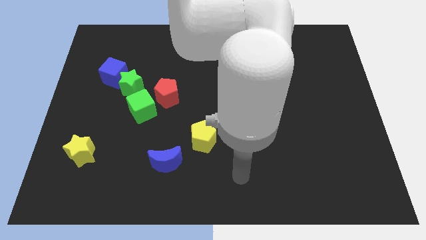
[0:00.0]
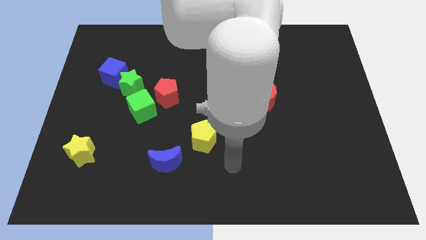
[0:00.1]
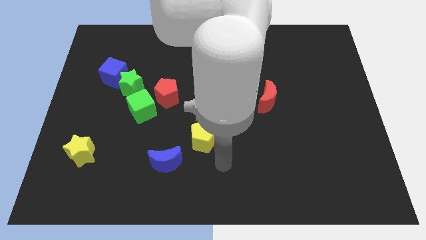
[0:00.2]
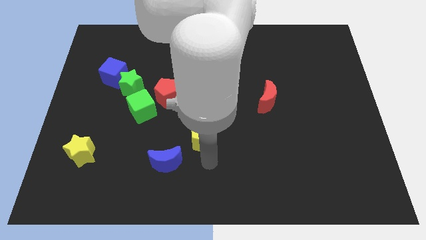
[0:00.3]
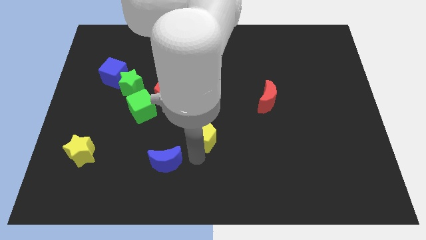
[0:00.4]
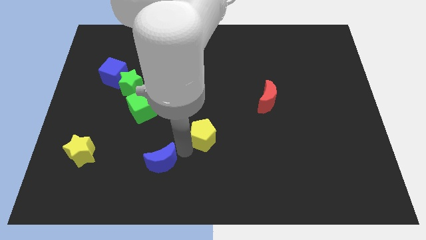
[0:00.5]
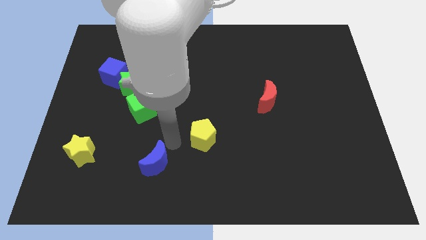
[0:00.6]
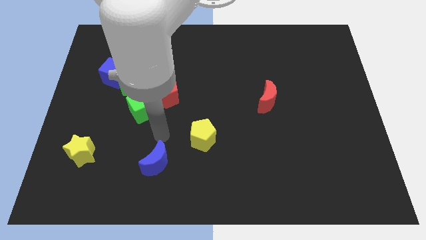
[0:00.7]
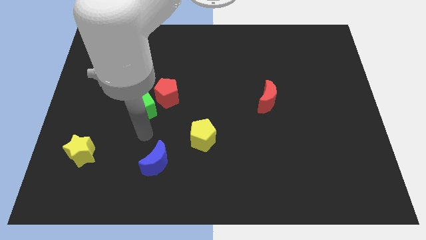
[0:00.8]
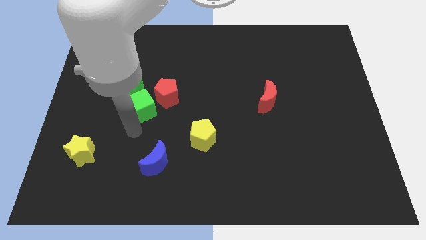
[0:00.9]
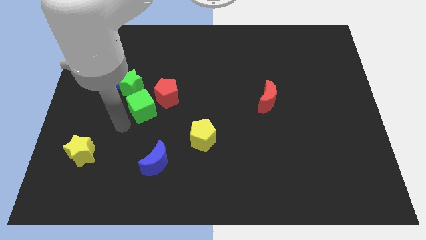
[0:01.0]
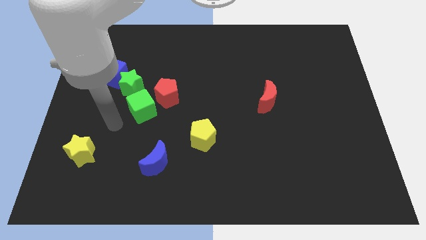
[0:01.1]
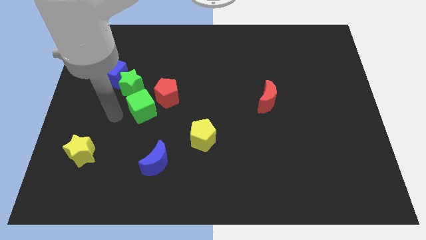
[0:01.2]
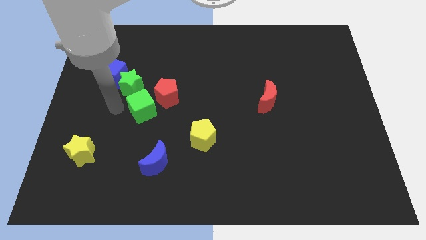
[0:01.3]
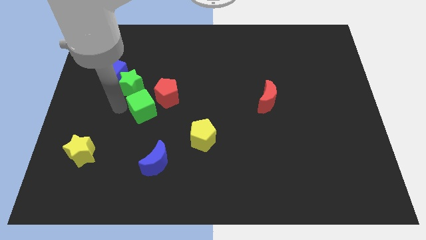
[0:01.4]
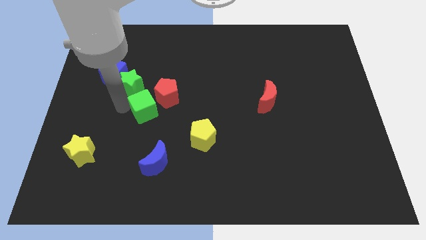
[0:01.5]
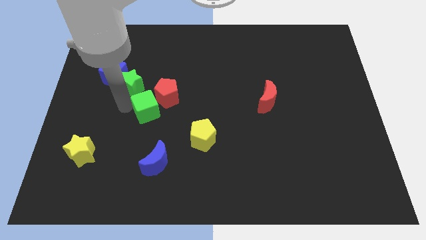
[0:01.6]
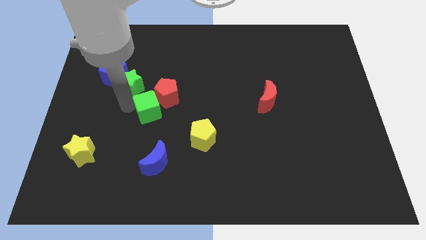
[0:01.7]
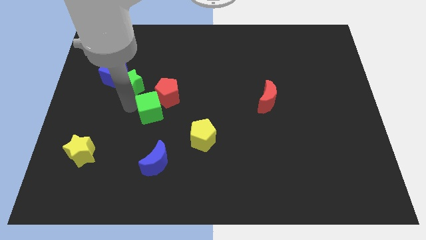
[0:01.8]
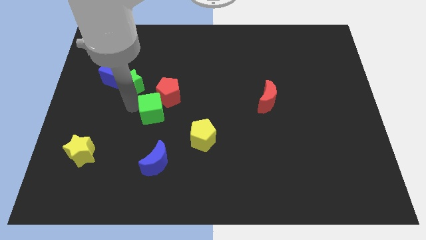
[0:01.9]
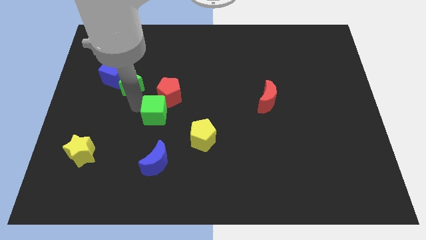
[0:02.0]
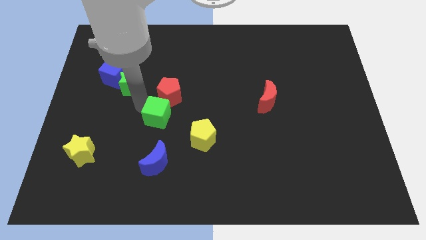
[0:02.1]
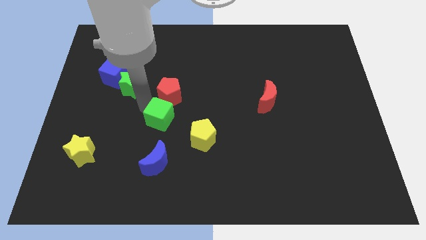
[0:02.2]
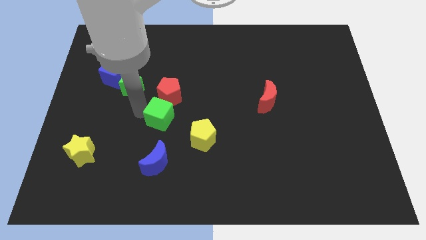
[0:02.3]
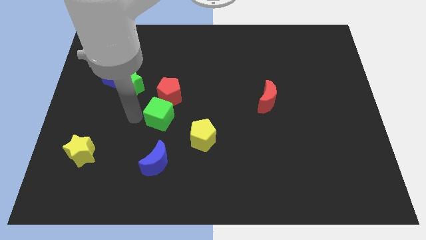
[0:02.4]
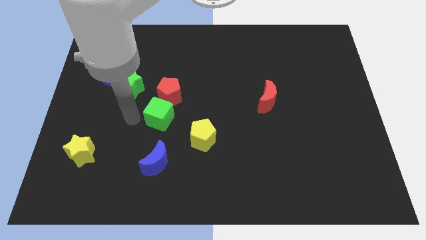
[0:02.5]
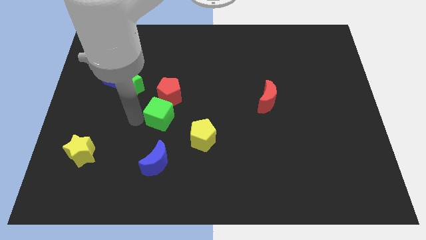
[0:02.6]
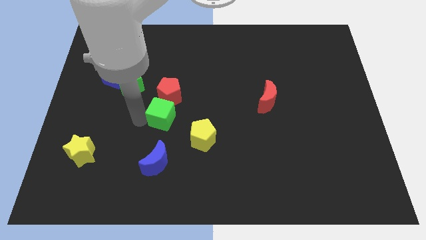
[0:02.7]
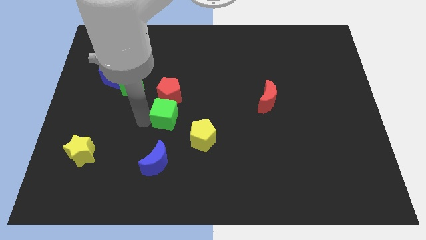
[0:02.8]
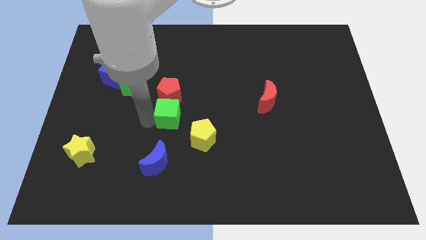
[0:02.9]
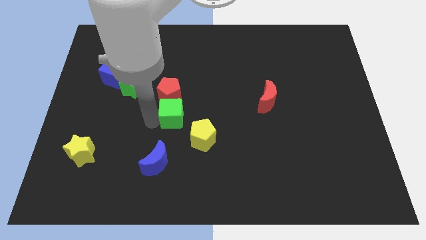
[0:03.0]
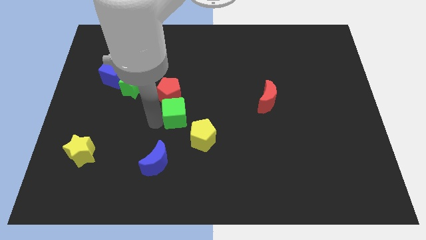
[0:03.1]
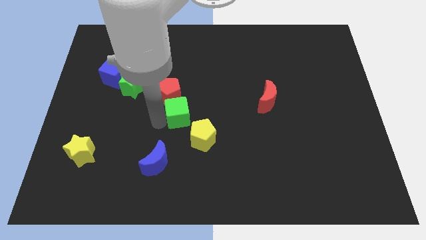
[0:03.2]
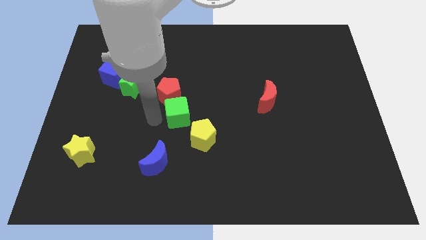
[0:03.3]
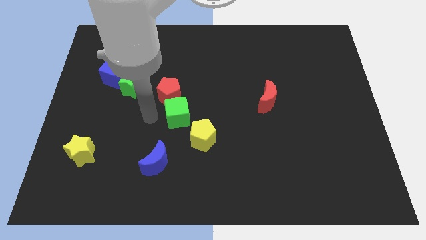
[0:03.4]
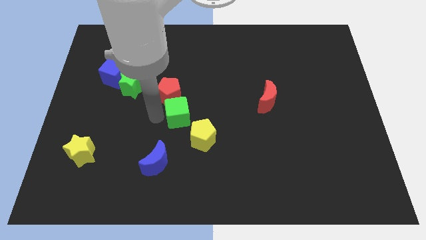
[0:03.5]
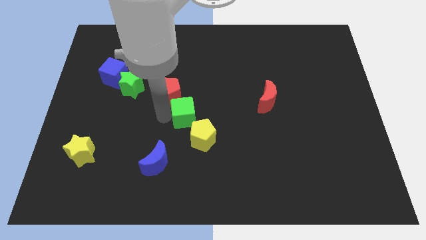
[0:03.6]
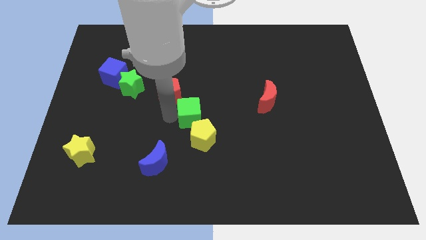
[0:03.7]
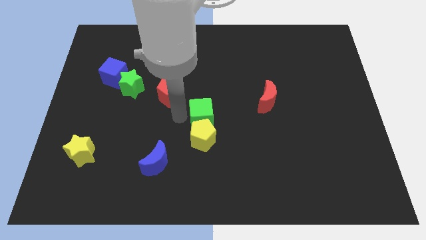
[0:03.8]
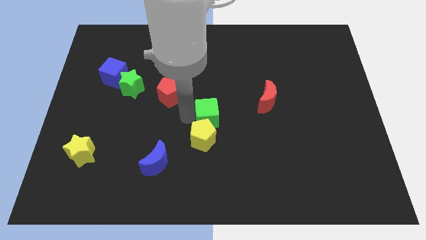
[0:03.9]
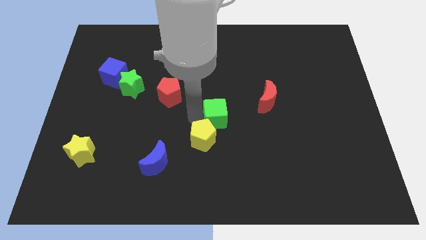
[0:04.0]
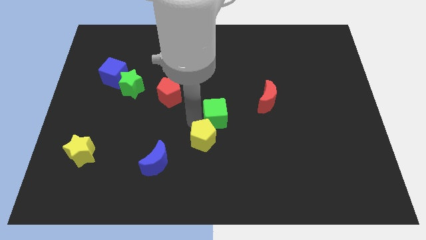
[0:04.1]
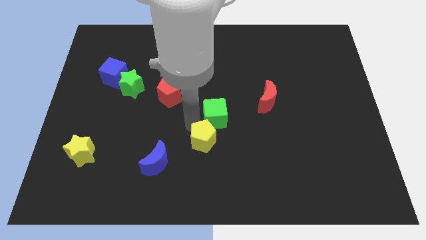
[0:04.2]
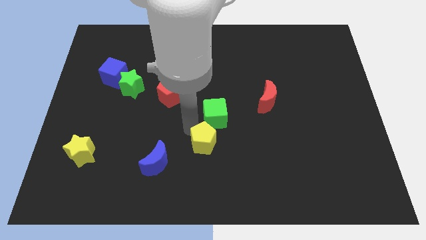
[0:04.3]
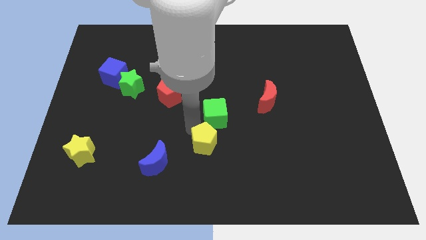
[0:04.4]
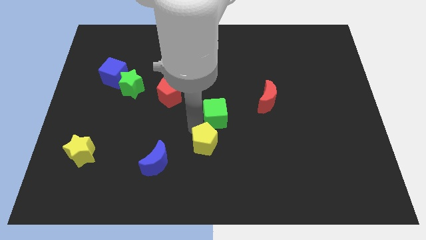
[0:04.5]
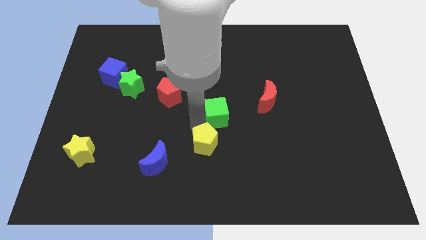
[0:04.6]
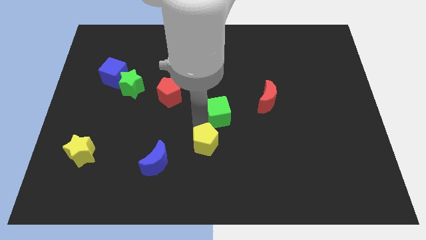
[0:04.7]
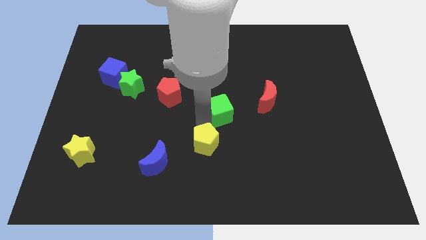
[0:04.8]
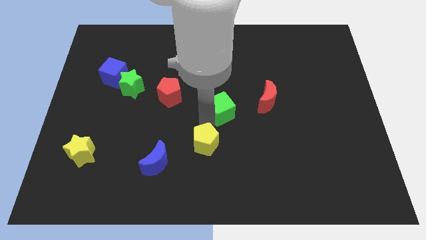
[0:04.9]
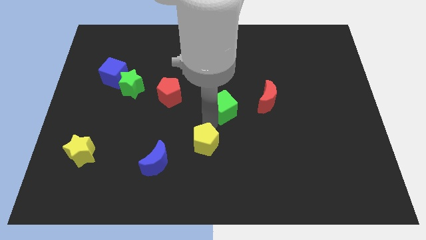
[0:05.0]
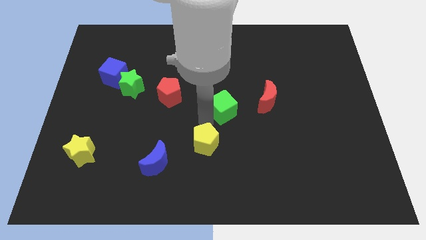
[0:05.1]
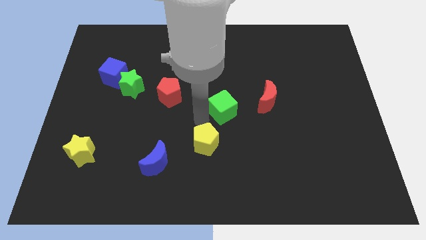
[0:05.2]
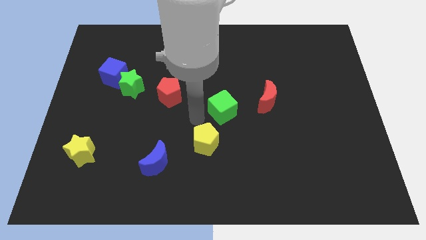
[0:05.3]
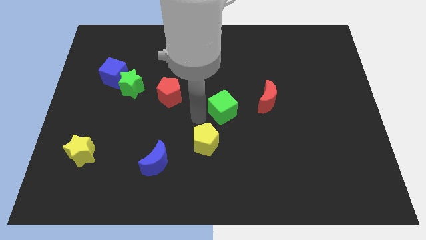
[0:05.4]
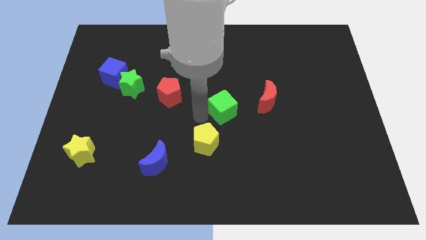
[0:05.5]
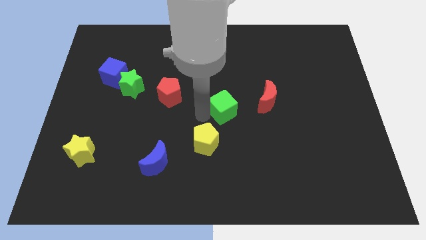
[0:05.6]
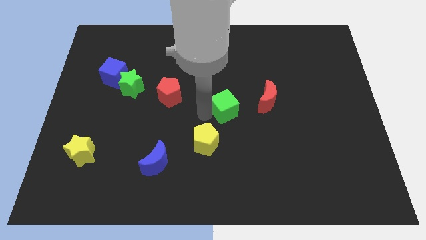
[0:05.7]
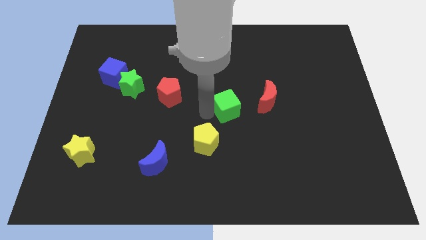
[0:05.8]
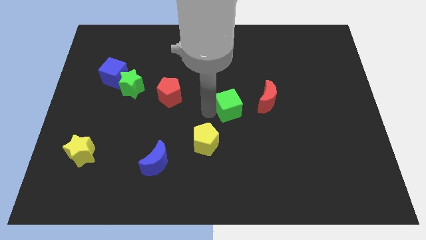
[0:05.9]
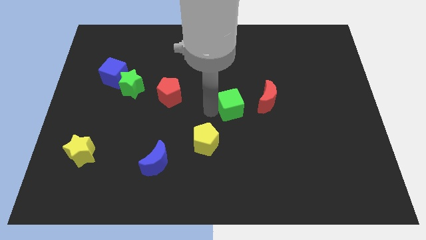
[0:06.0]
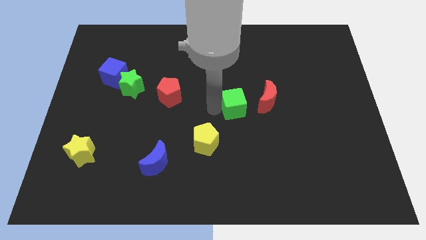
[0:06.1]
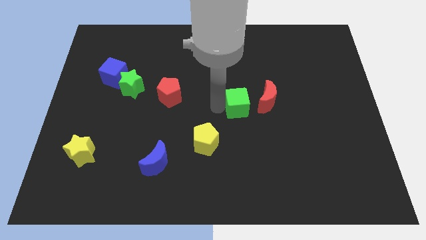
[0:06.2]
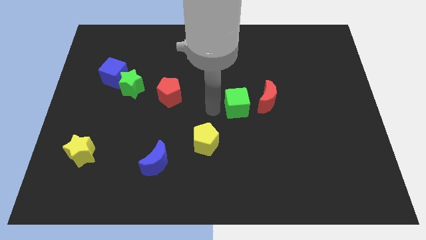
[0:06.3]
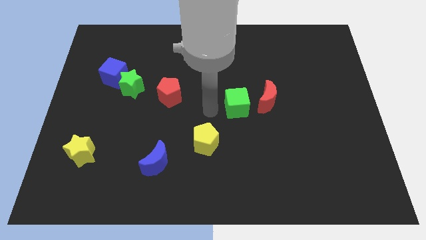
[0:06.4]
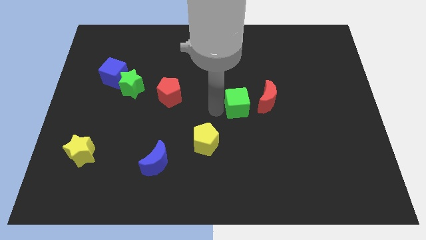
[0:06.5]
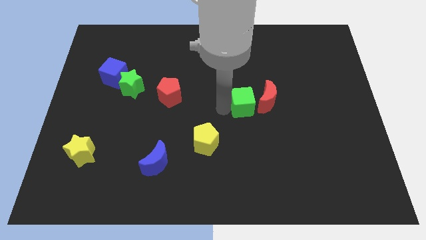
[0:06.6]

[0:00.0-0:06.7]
push the green cube to the red moon
